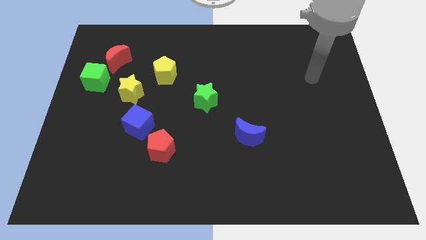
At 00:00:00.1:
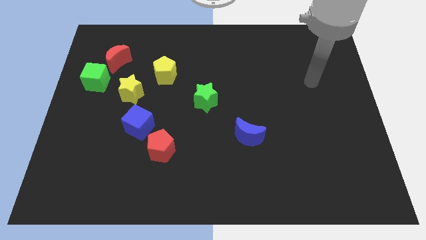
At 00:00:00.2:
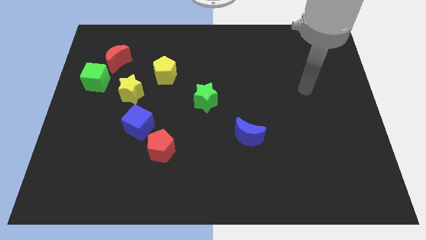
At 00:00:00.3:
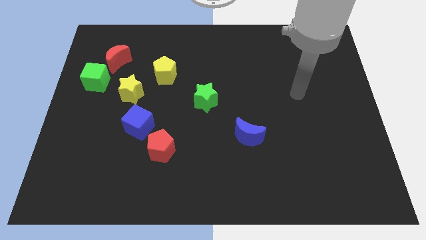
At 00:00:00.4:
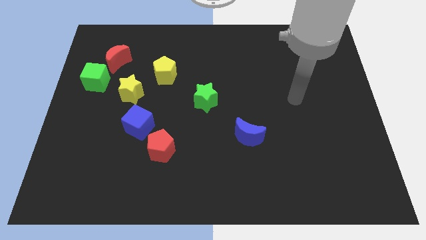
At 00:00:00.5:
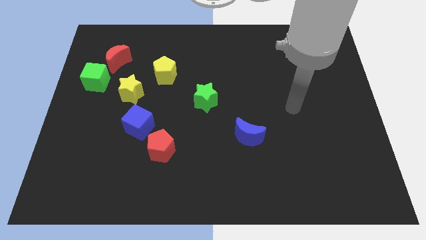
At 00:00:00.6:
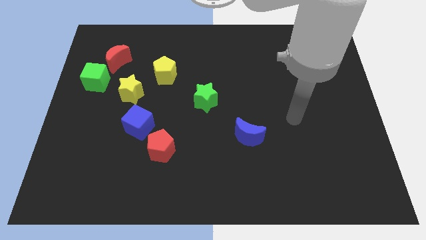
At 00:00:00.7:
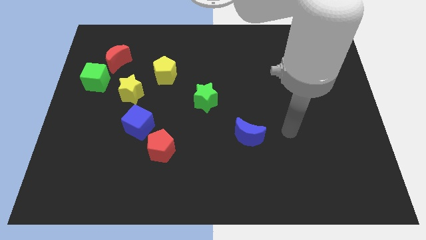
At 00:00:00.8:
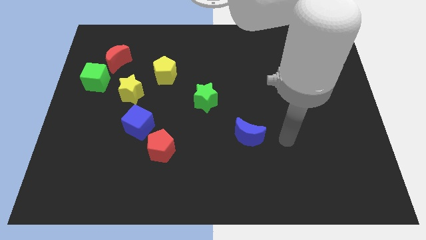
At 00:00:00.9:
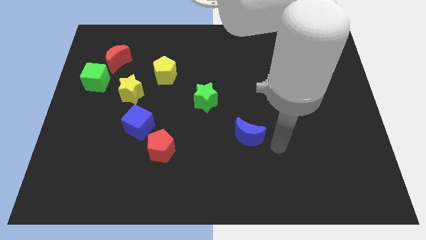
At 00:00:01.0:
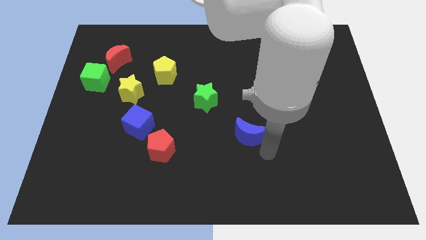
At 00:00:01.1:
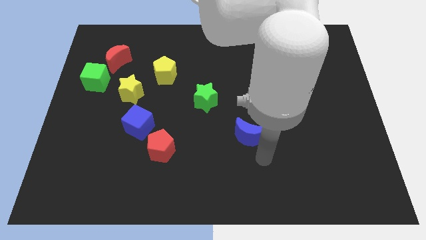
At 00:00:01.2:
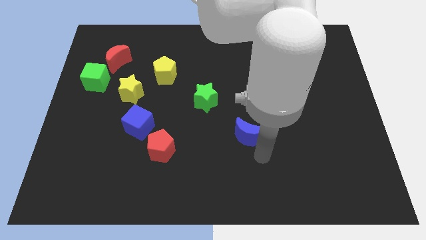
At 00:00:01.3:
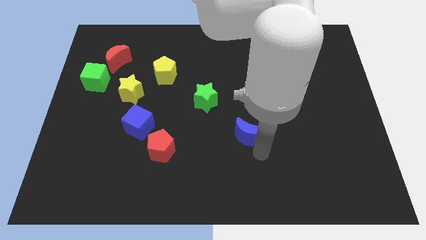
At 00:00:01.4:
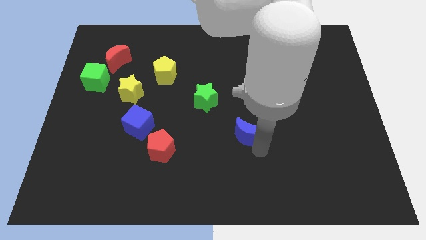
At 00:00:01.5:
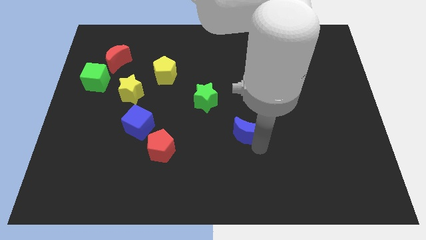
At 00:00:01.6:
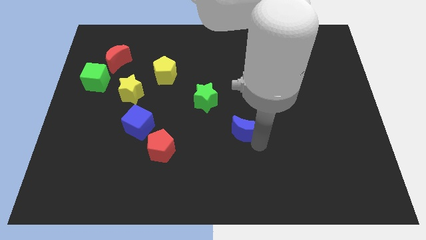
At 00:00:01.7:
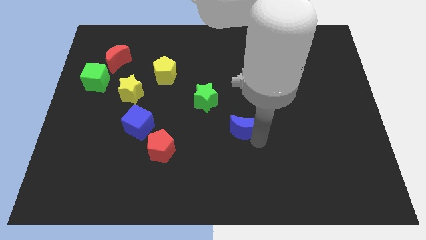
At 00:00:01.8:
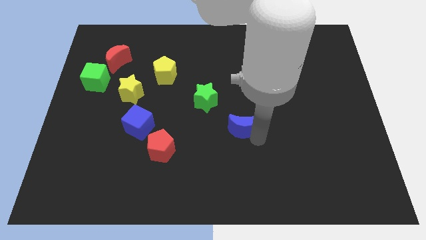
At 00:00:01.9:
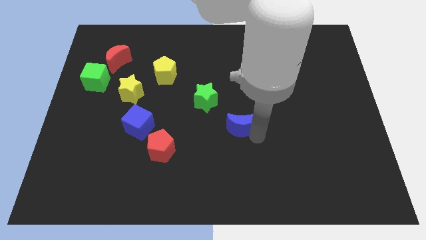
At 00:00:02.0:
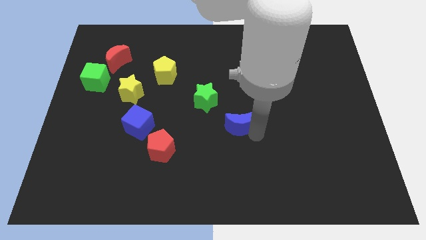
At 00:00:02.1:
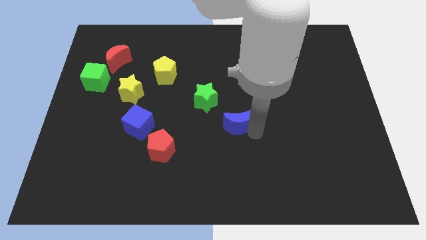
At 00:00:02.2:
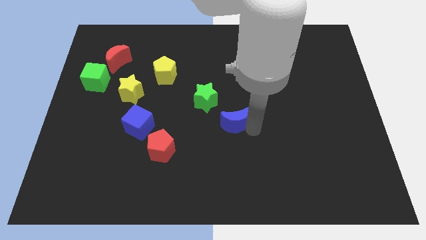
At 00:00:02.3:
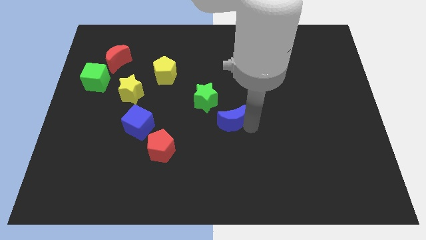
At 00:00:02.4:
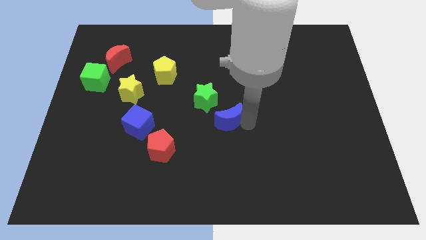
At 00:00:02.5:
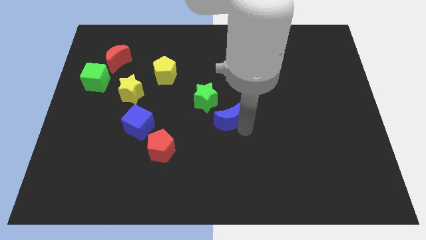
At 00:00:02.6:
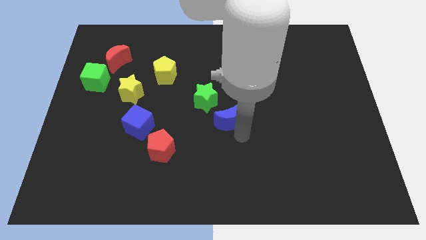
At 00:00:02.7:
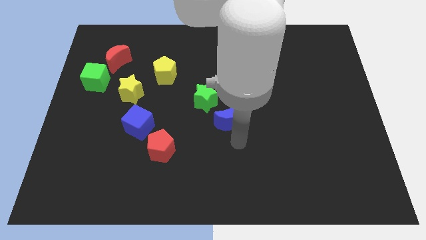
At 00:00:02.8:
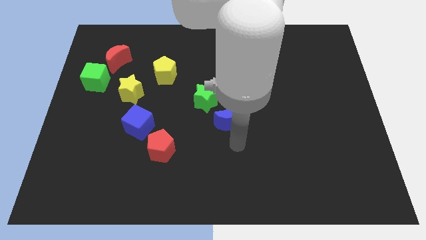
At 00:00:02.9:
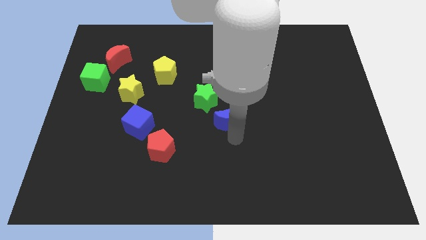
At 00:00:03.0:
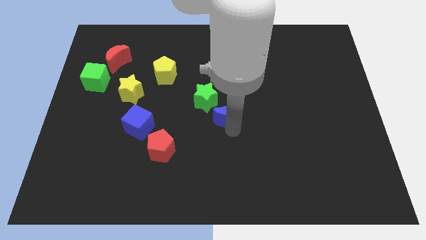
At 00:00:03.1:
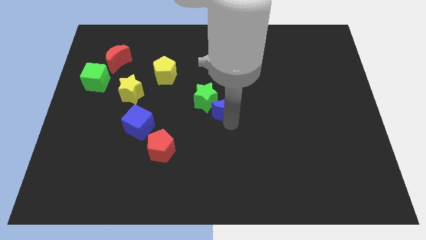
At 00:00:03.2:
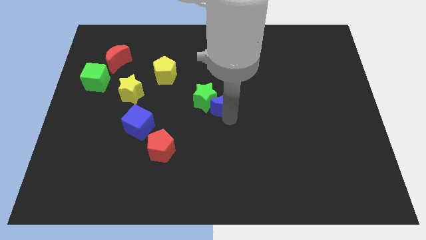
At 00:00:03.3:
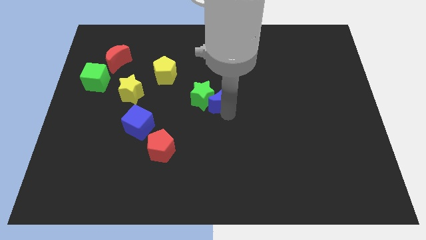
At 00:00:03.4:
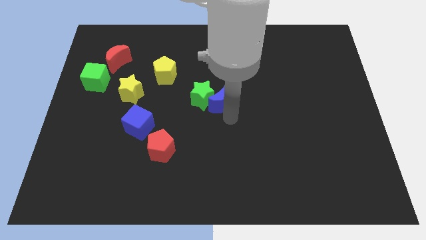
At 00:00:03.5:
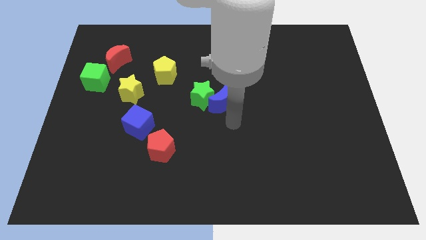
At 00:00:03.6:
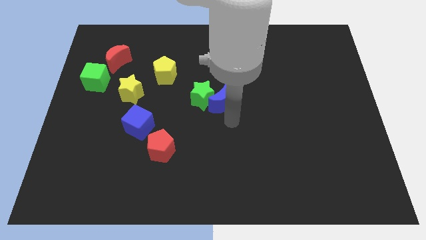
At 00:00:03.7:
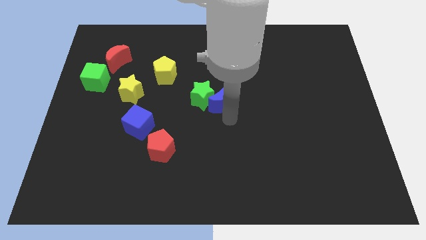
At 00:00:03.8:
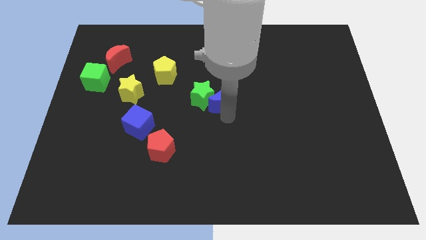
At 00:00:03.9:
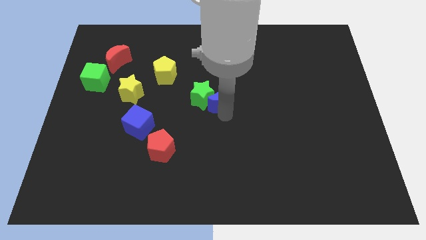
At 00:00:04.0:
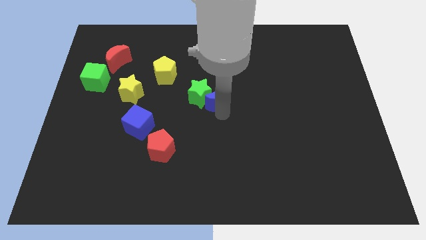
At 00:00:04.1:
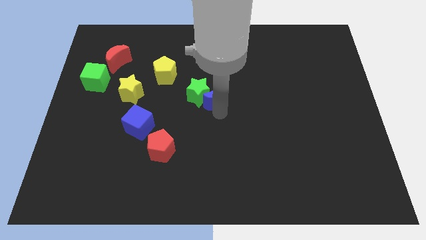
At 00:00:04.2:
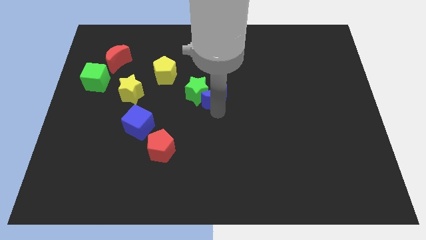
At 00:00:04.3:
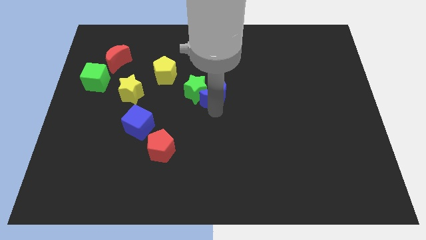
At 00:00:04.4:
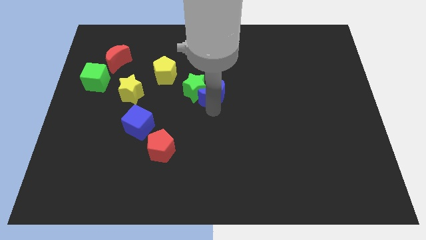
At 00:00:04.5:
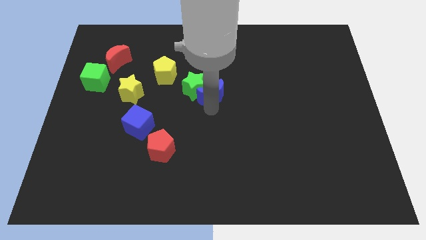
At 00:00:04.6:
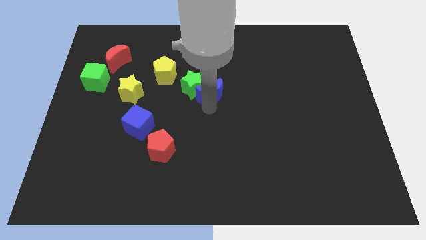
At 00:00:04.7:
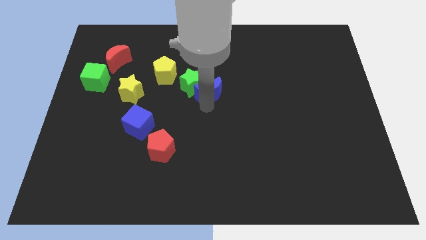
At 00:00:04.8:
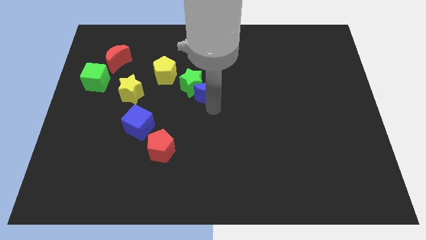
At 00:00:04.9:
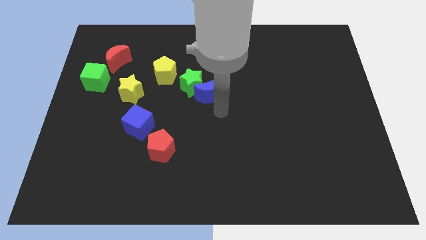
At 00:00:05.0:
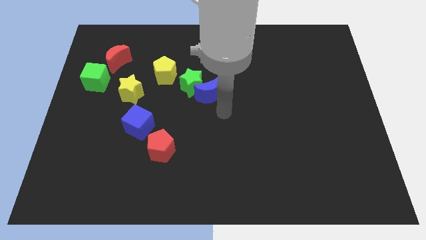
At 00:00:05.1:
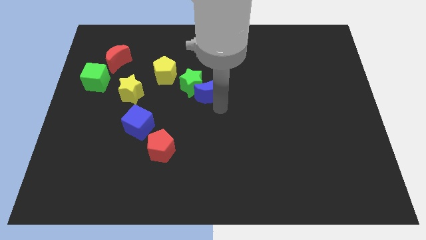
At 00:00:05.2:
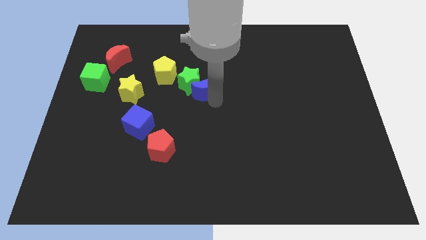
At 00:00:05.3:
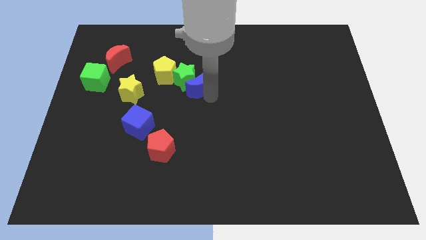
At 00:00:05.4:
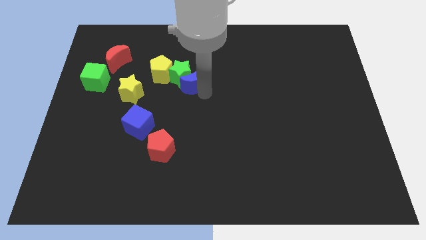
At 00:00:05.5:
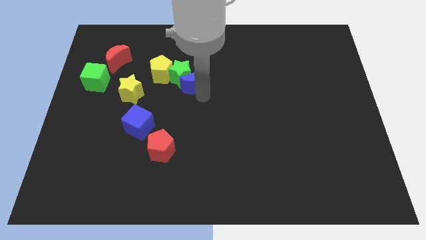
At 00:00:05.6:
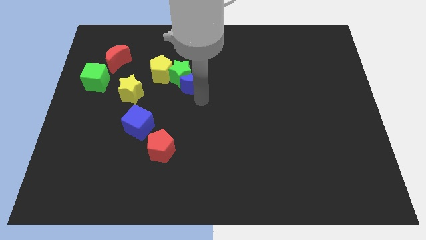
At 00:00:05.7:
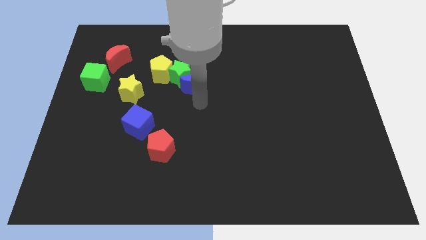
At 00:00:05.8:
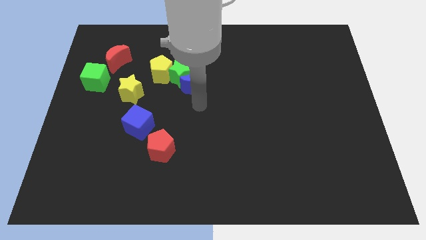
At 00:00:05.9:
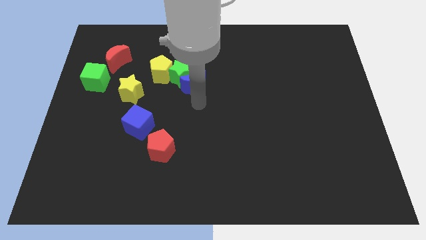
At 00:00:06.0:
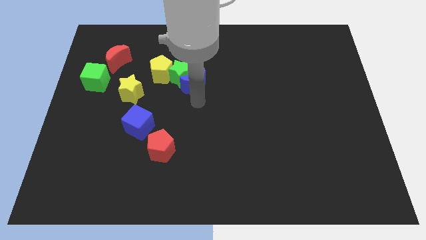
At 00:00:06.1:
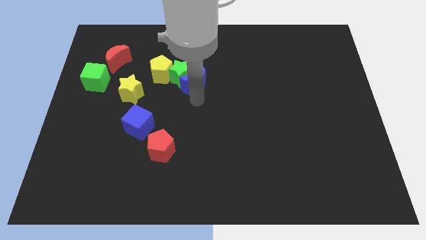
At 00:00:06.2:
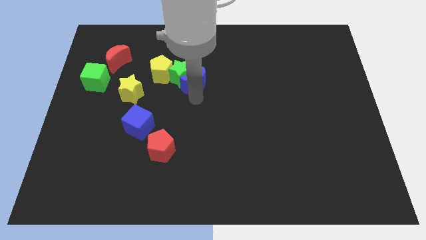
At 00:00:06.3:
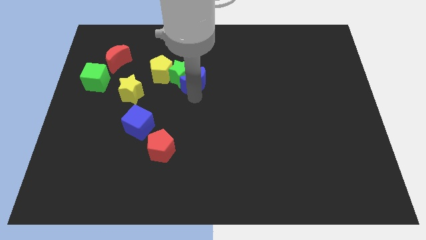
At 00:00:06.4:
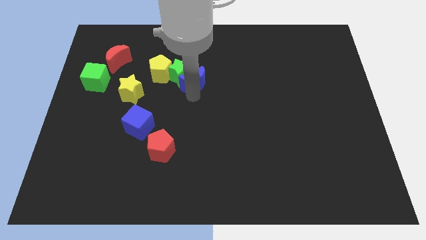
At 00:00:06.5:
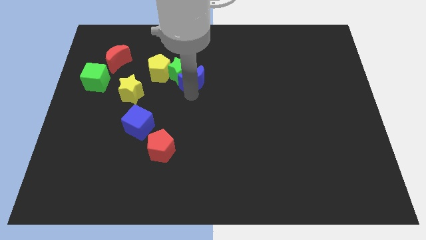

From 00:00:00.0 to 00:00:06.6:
move the blue moon upwards and then left

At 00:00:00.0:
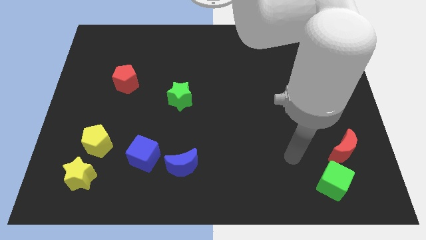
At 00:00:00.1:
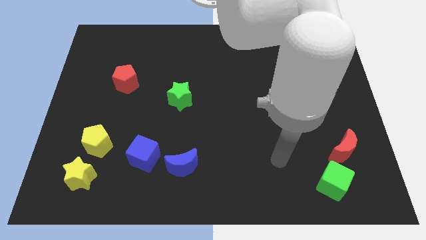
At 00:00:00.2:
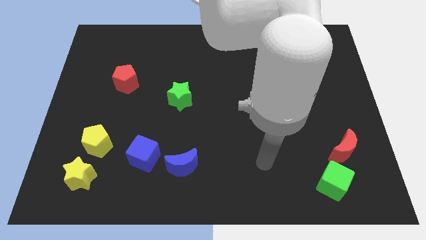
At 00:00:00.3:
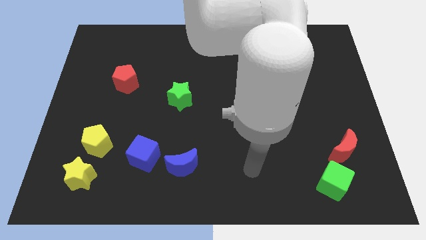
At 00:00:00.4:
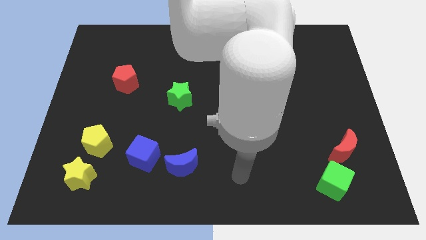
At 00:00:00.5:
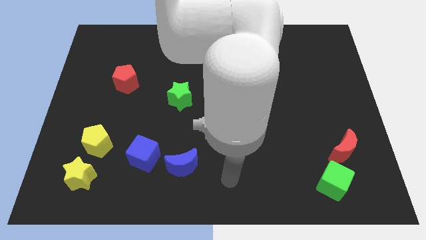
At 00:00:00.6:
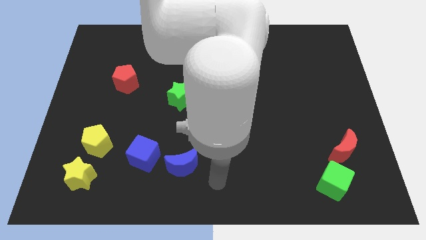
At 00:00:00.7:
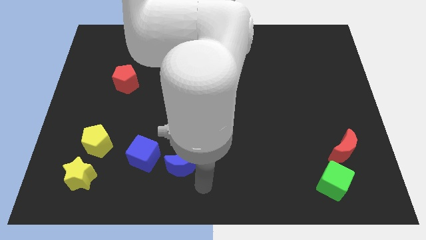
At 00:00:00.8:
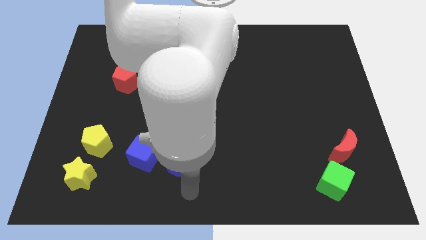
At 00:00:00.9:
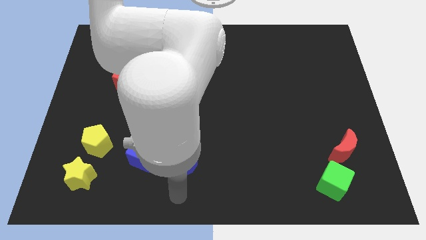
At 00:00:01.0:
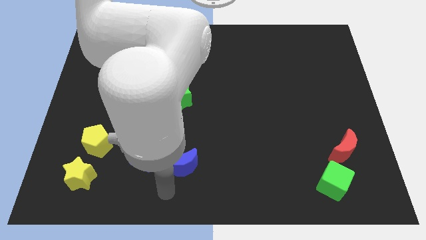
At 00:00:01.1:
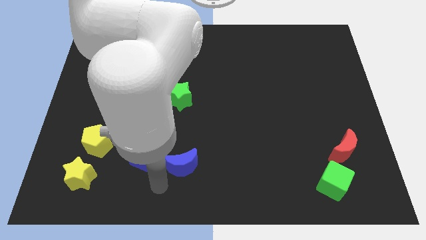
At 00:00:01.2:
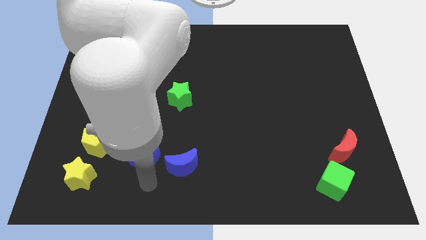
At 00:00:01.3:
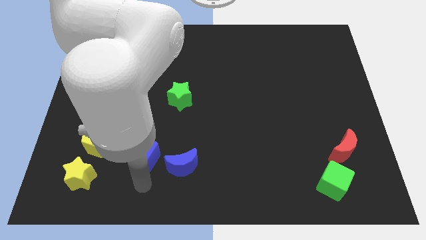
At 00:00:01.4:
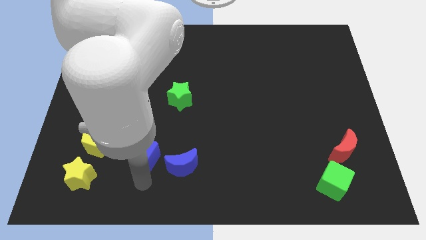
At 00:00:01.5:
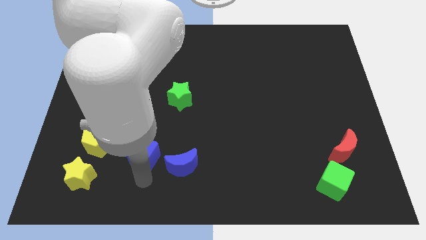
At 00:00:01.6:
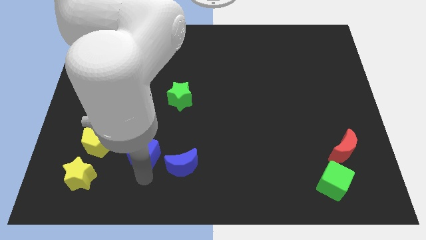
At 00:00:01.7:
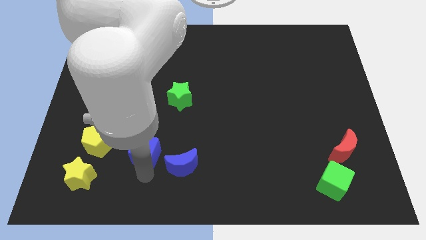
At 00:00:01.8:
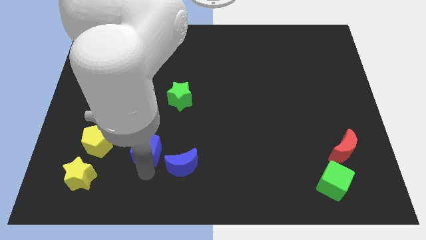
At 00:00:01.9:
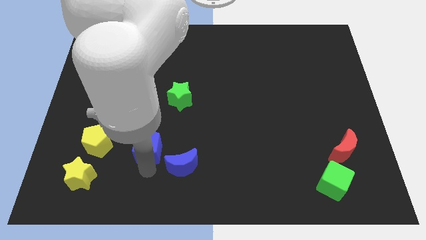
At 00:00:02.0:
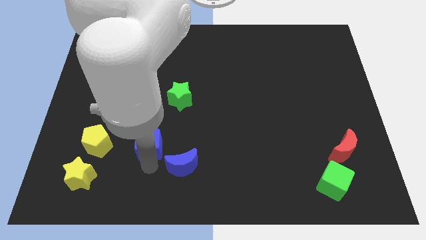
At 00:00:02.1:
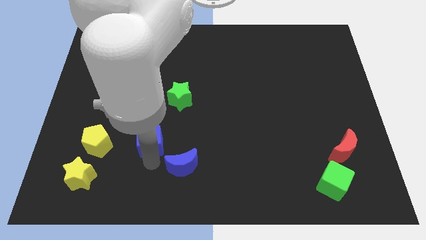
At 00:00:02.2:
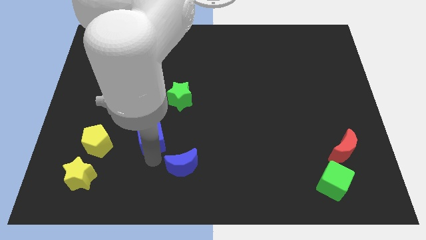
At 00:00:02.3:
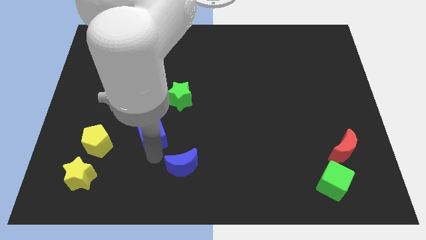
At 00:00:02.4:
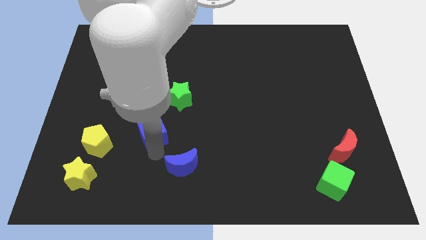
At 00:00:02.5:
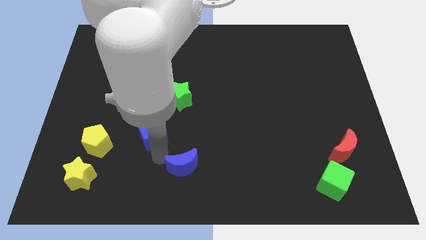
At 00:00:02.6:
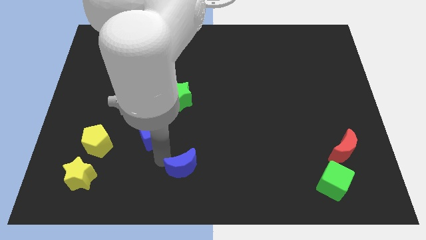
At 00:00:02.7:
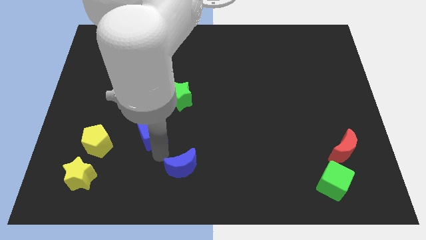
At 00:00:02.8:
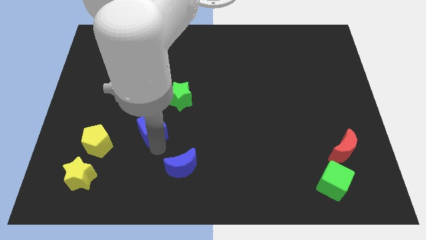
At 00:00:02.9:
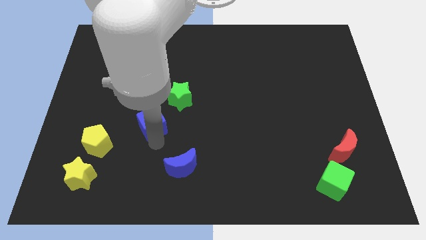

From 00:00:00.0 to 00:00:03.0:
slightly push the blue cube upwards
